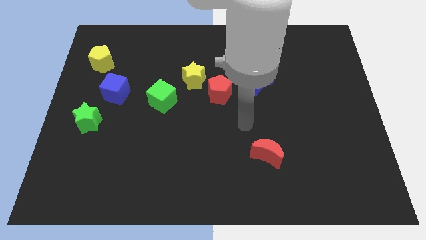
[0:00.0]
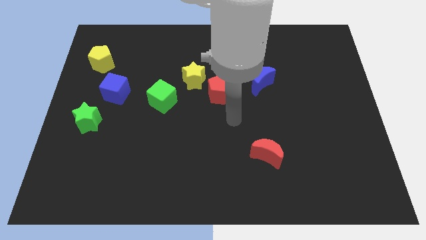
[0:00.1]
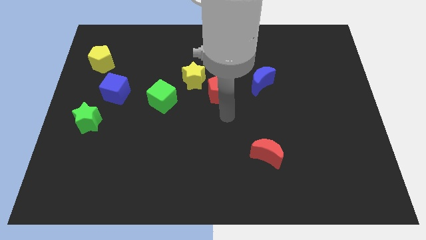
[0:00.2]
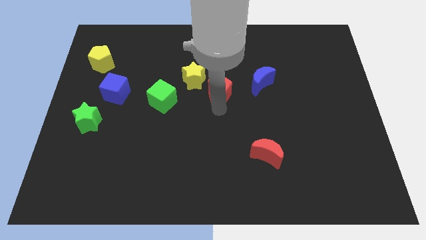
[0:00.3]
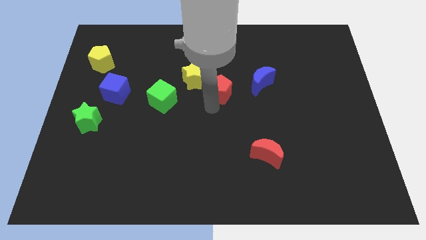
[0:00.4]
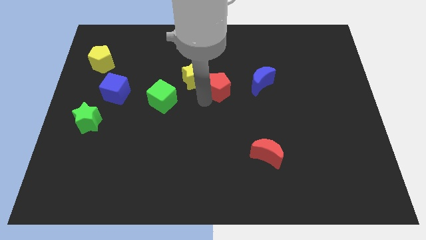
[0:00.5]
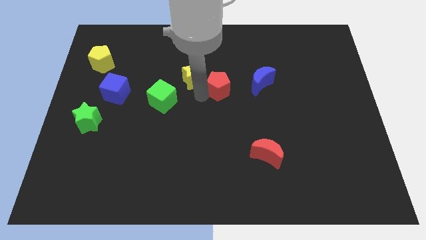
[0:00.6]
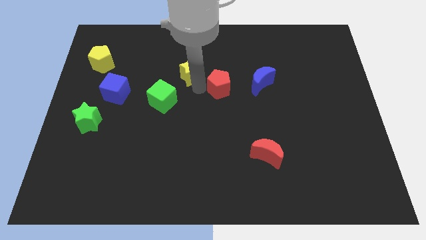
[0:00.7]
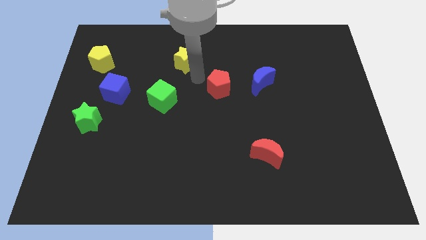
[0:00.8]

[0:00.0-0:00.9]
pull the red pentagon apart from the yellow star

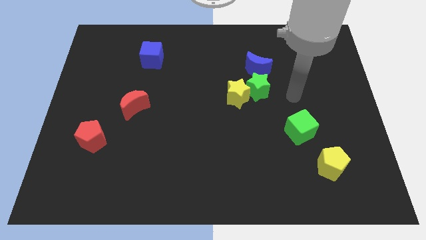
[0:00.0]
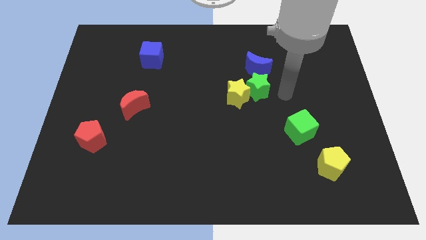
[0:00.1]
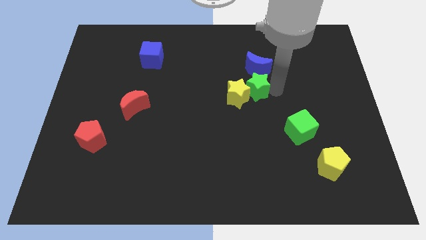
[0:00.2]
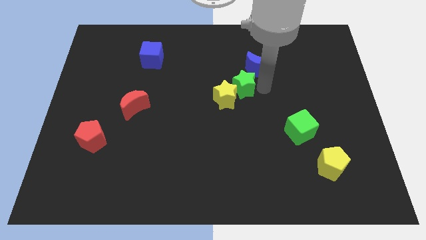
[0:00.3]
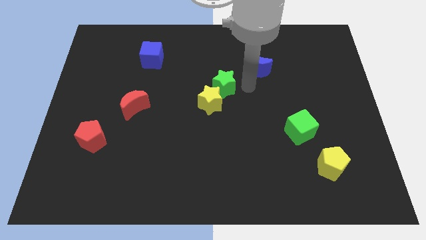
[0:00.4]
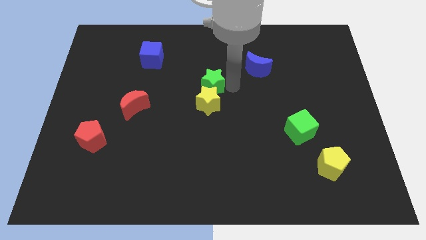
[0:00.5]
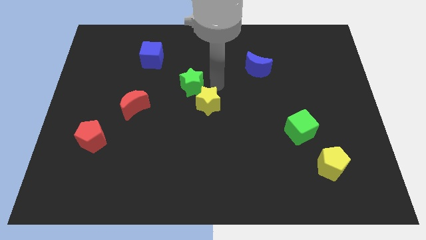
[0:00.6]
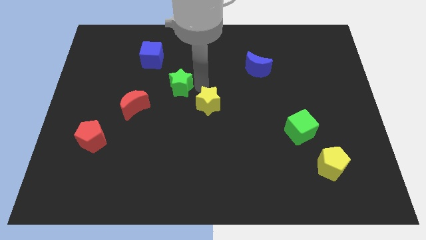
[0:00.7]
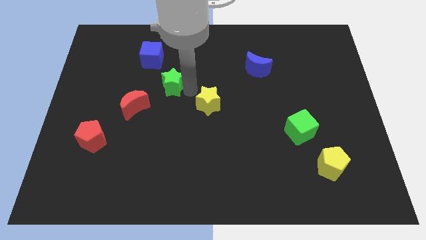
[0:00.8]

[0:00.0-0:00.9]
move the yellow star away from the green star

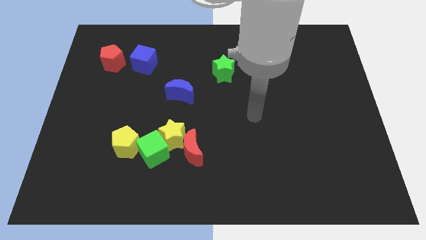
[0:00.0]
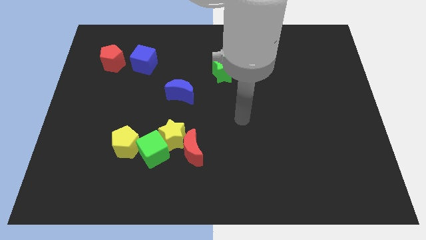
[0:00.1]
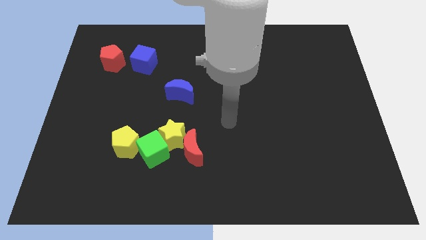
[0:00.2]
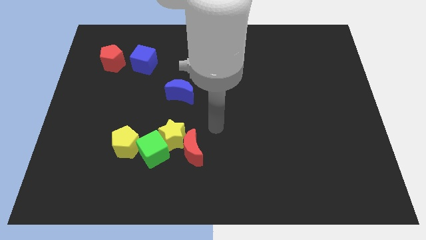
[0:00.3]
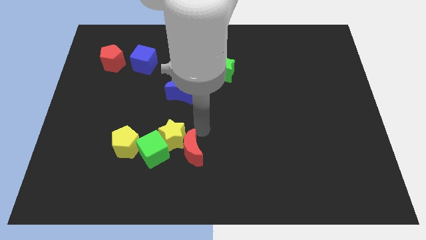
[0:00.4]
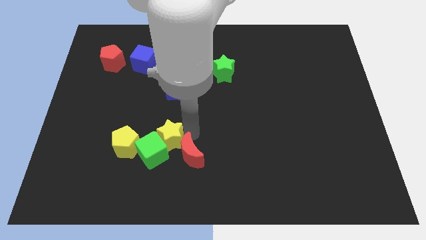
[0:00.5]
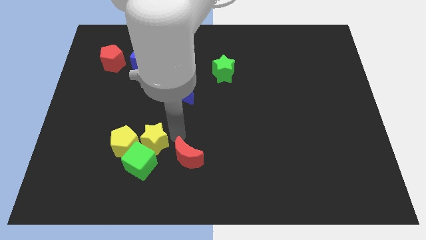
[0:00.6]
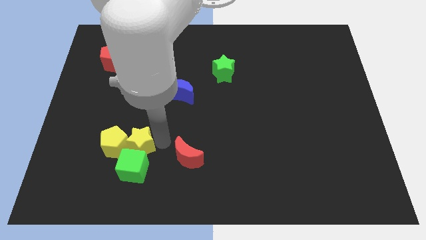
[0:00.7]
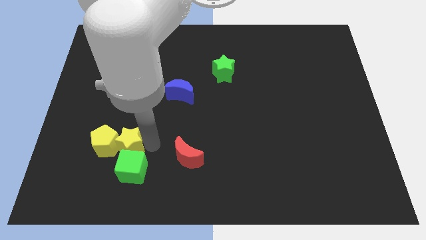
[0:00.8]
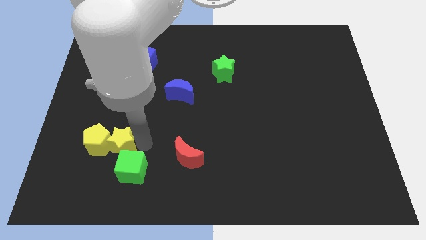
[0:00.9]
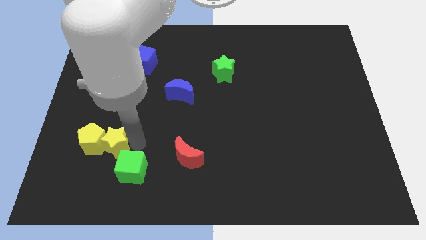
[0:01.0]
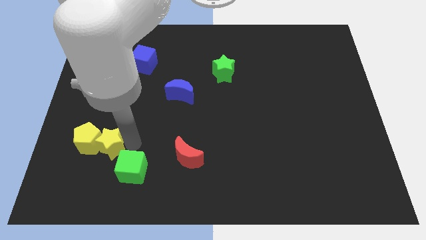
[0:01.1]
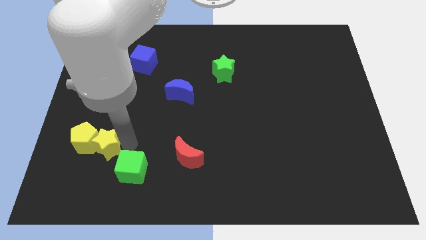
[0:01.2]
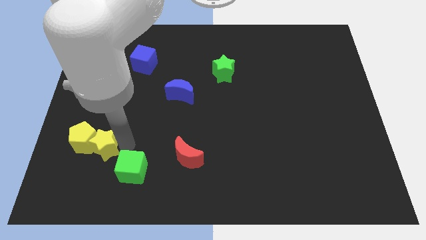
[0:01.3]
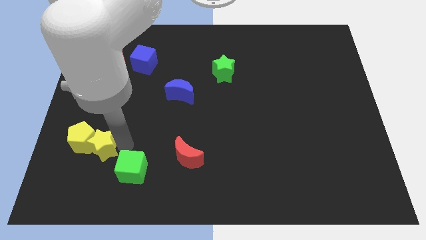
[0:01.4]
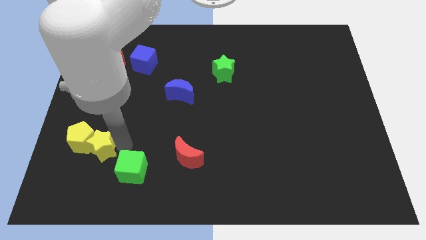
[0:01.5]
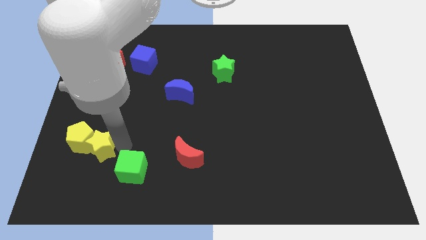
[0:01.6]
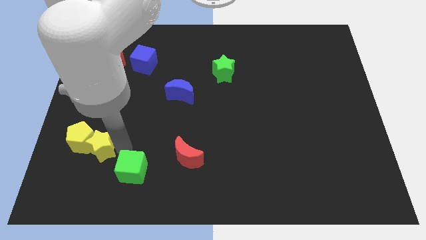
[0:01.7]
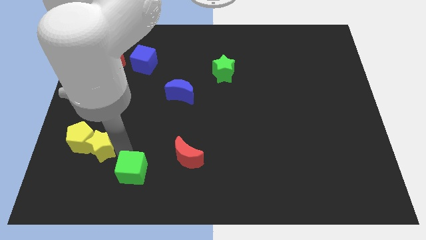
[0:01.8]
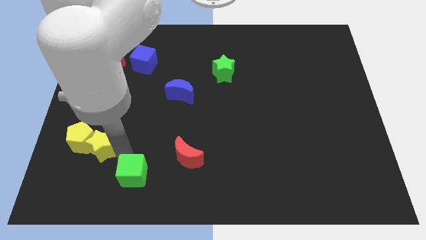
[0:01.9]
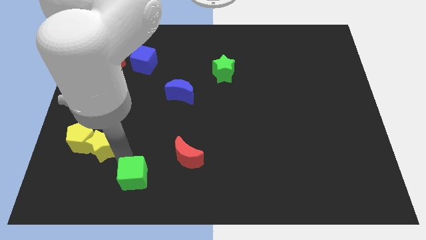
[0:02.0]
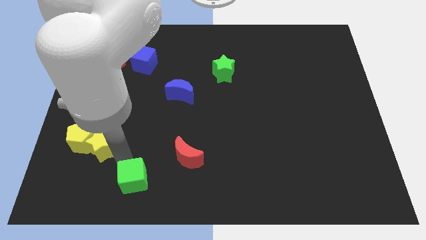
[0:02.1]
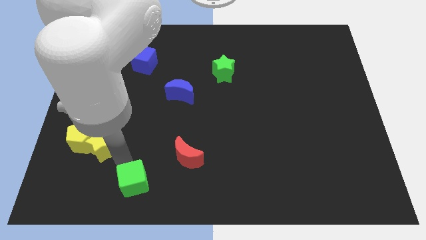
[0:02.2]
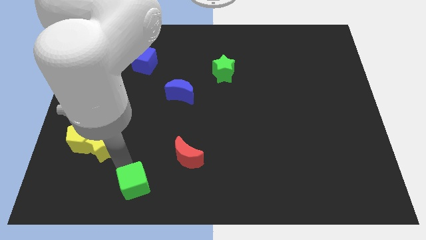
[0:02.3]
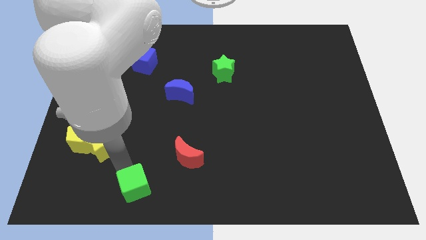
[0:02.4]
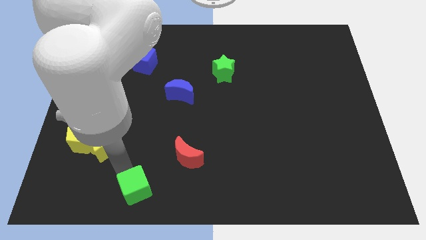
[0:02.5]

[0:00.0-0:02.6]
move the green cube away from the clump

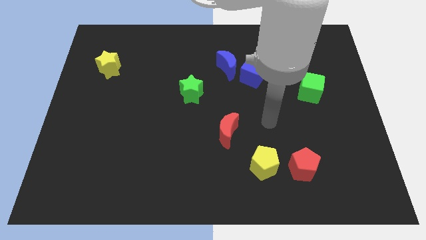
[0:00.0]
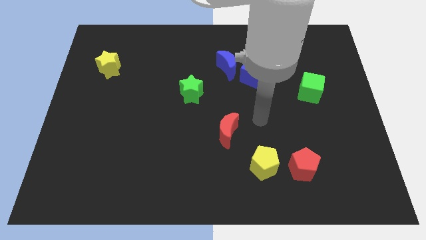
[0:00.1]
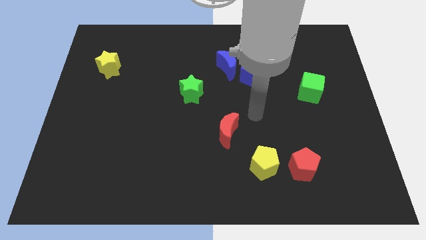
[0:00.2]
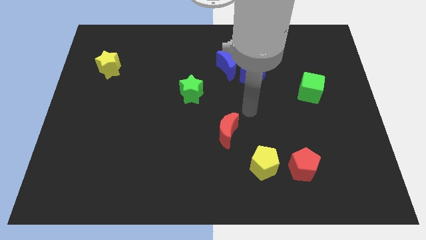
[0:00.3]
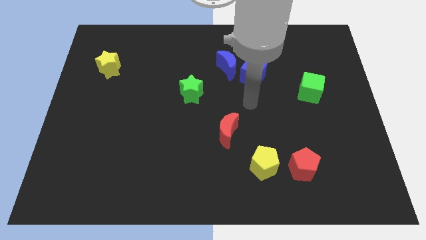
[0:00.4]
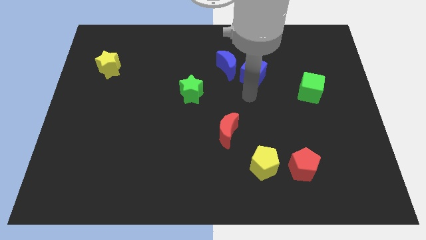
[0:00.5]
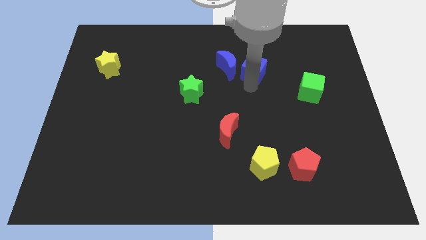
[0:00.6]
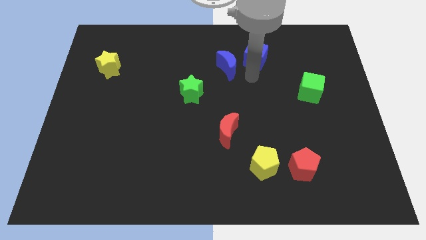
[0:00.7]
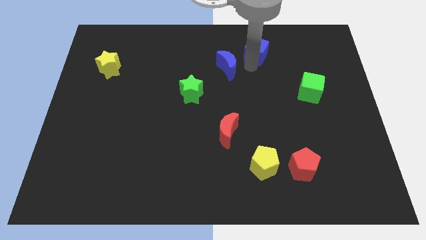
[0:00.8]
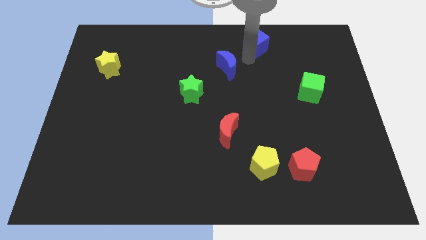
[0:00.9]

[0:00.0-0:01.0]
move the blue moon away from the blue cube

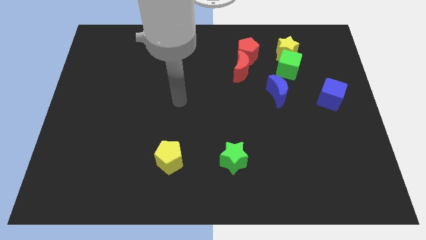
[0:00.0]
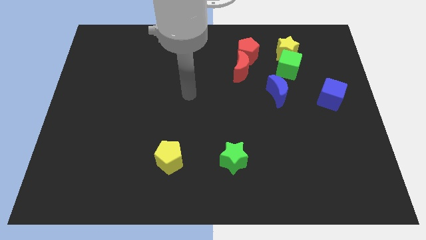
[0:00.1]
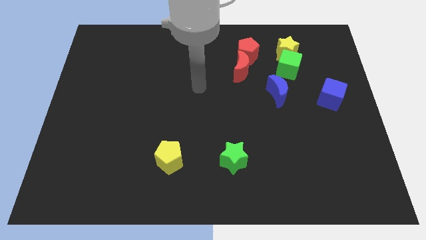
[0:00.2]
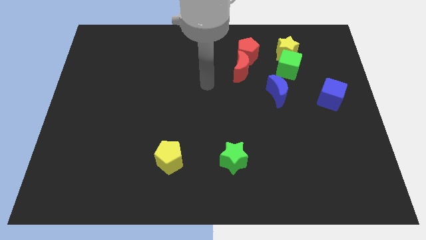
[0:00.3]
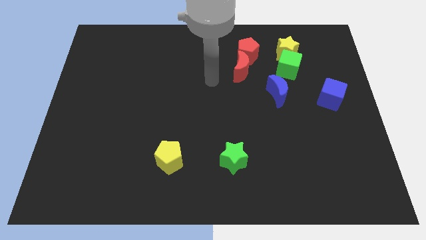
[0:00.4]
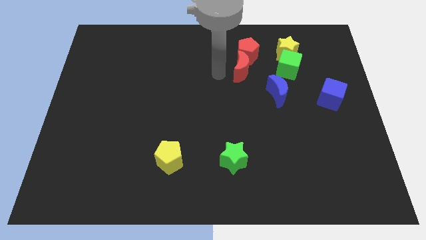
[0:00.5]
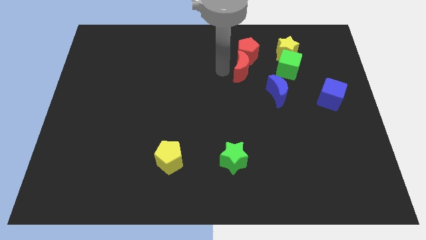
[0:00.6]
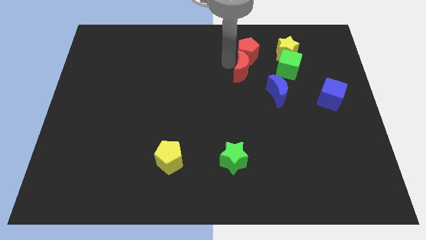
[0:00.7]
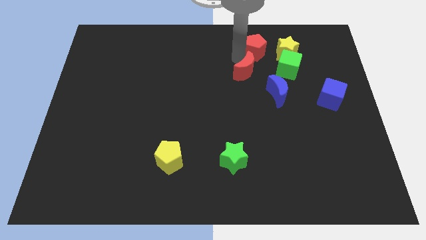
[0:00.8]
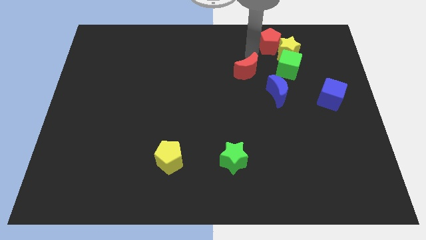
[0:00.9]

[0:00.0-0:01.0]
move the red moon away from the red pentagon

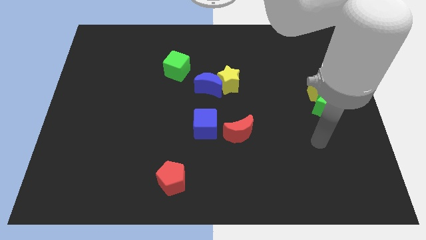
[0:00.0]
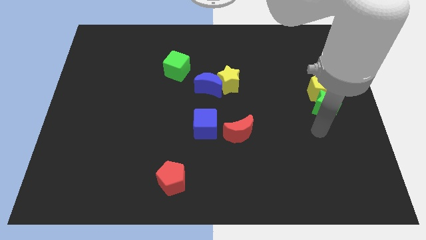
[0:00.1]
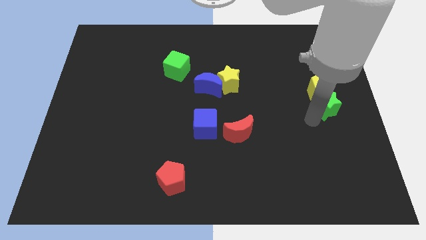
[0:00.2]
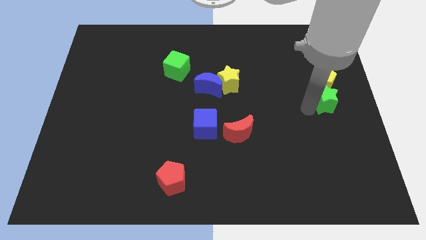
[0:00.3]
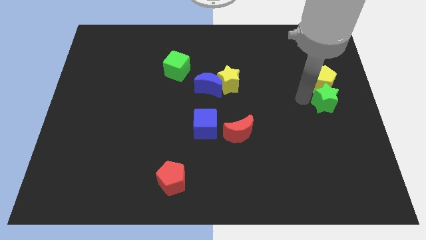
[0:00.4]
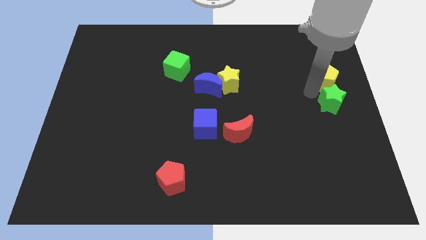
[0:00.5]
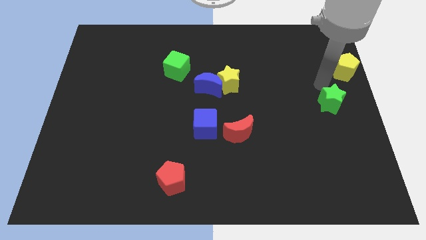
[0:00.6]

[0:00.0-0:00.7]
separate the green star from the yellow pentagon

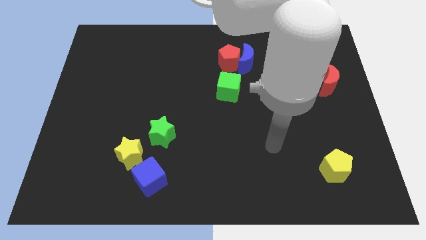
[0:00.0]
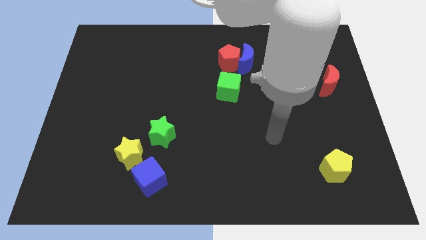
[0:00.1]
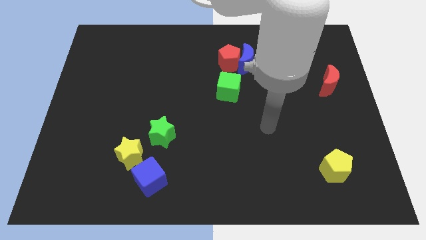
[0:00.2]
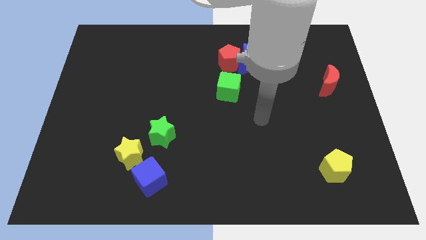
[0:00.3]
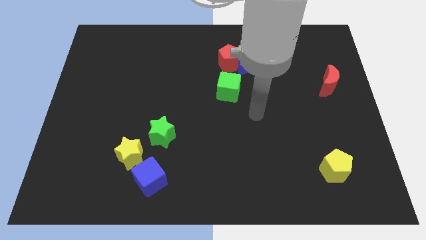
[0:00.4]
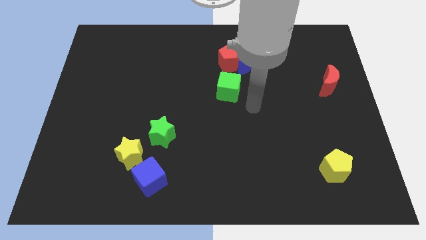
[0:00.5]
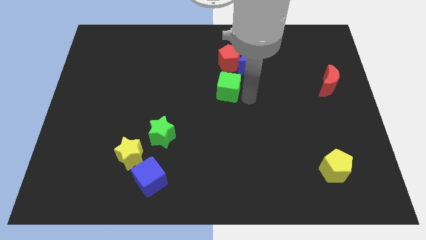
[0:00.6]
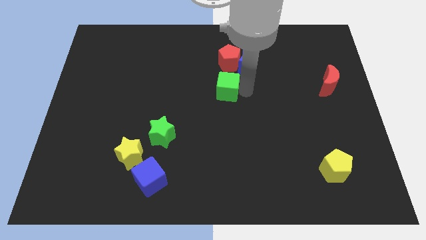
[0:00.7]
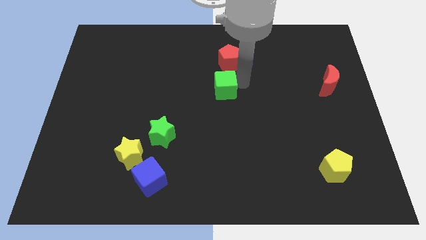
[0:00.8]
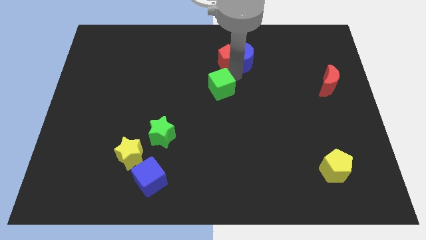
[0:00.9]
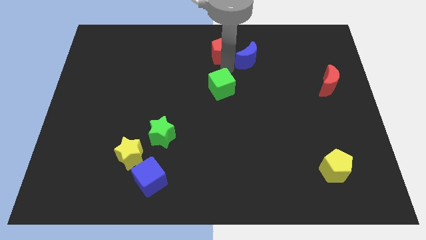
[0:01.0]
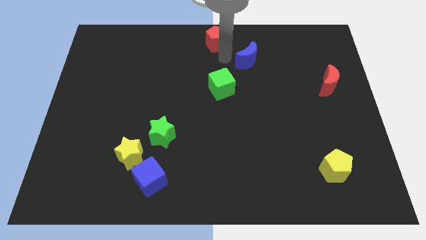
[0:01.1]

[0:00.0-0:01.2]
separate the blue moon from the red pentagon

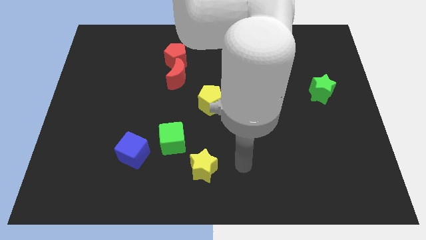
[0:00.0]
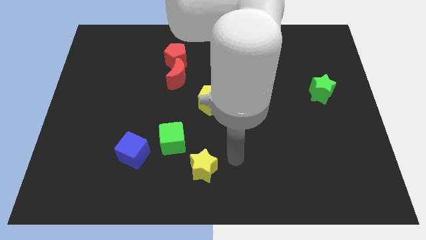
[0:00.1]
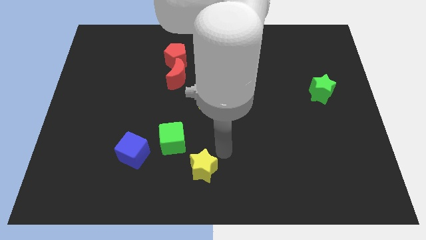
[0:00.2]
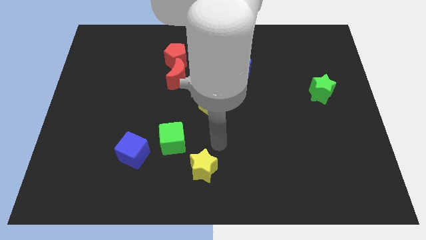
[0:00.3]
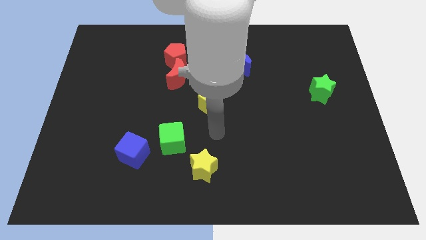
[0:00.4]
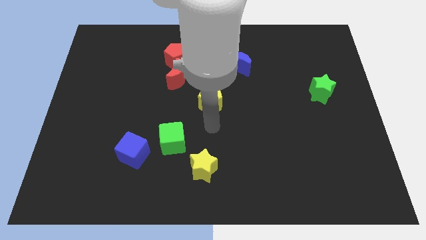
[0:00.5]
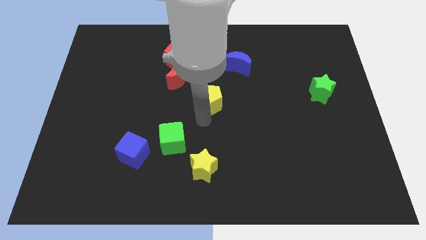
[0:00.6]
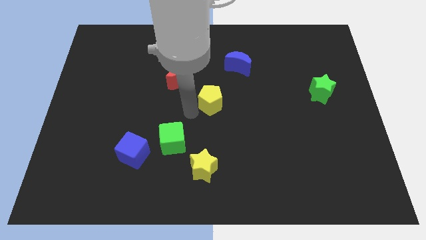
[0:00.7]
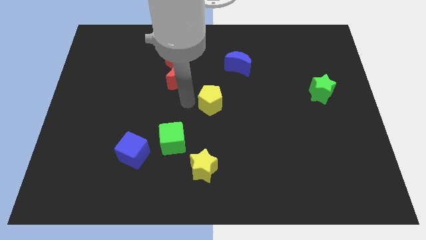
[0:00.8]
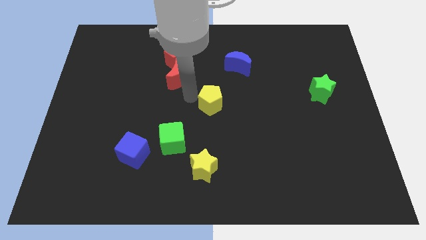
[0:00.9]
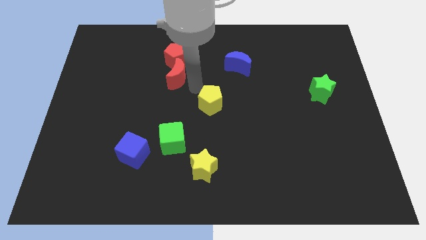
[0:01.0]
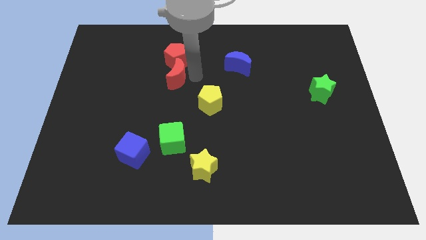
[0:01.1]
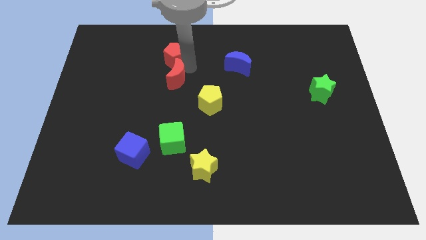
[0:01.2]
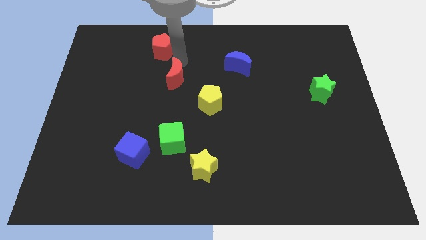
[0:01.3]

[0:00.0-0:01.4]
pull the red moon apart from the red pentagon
